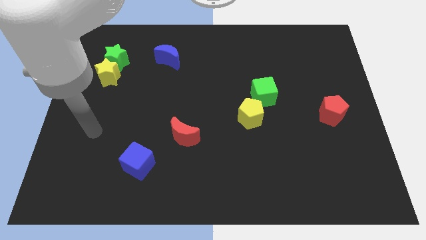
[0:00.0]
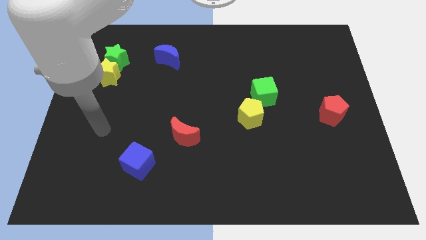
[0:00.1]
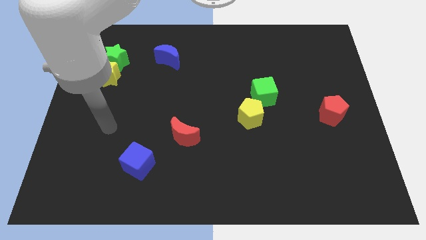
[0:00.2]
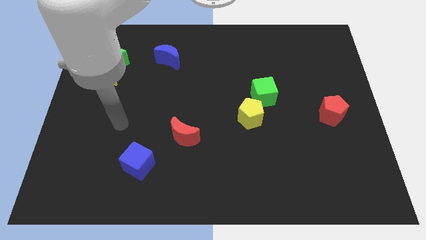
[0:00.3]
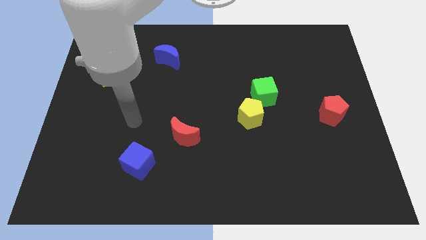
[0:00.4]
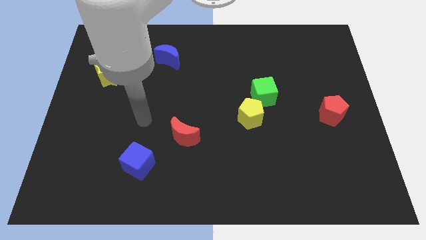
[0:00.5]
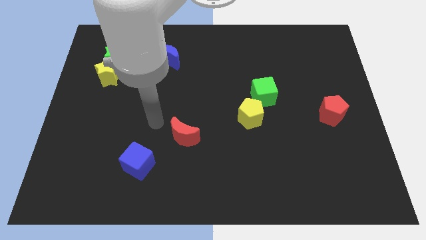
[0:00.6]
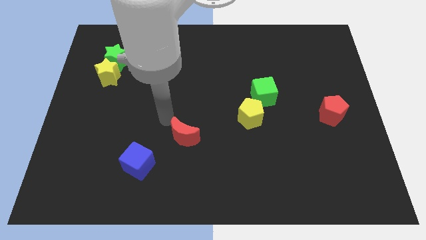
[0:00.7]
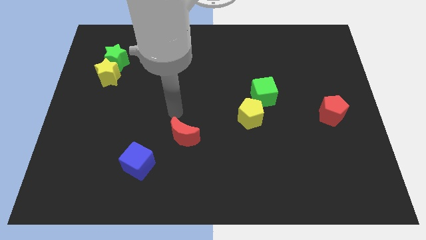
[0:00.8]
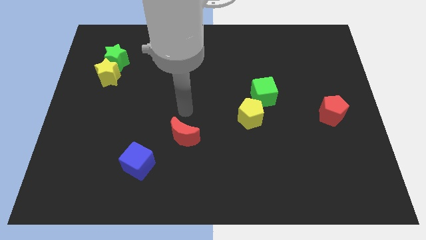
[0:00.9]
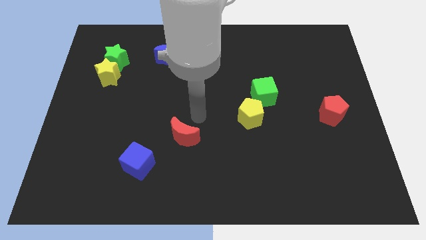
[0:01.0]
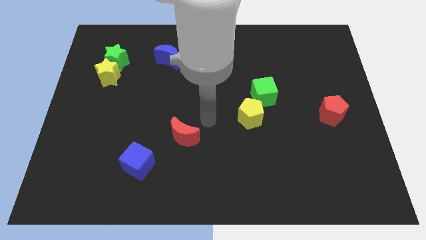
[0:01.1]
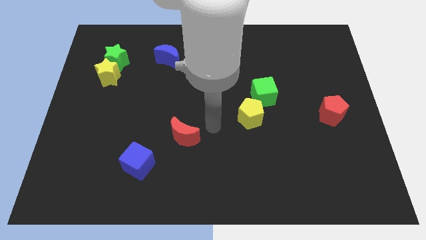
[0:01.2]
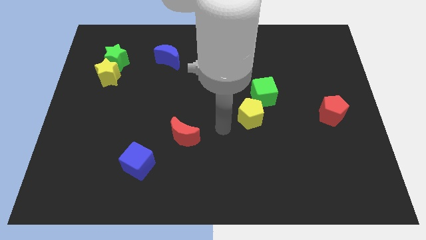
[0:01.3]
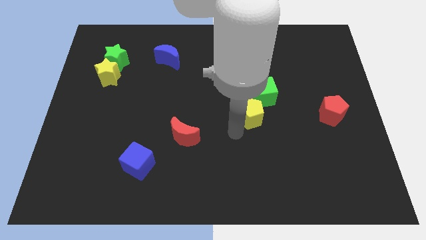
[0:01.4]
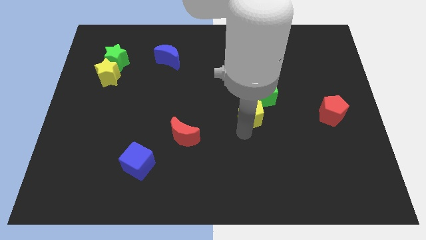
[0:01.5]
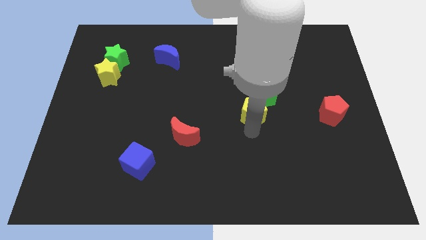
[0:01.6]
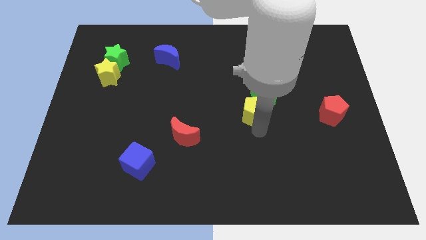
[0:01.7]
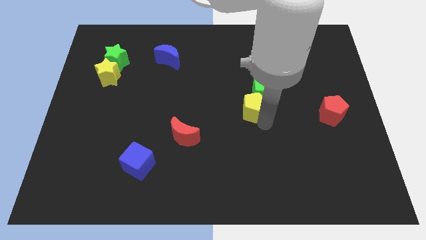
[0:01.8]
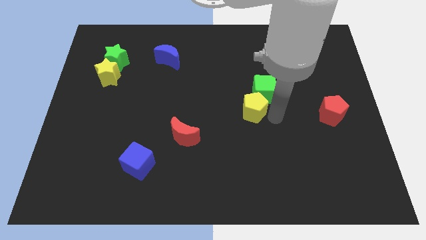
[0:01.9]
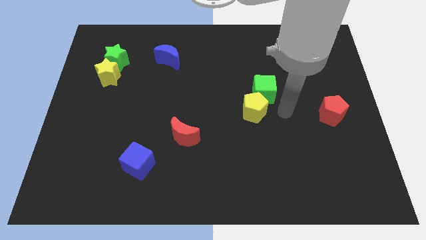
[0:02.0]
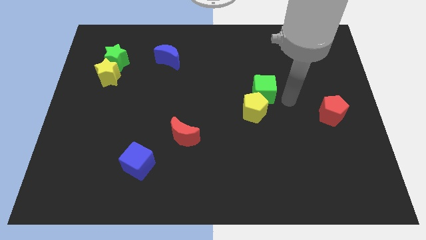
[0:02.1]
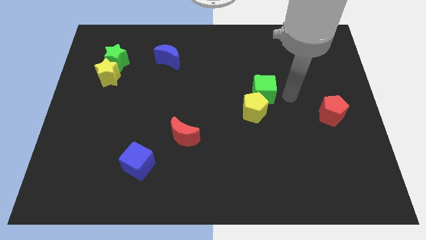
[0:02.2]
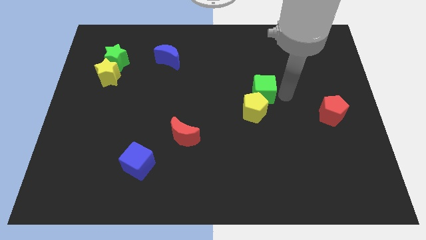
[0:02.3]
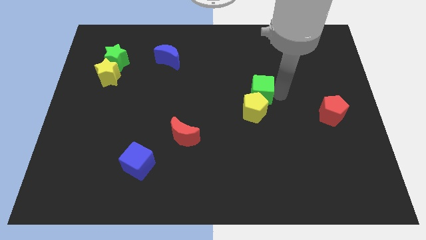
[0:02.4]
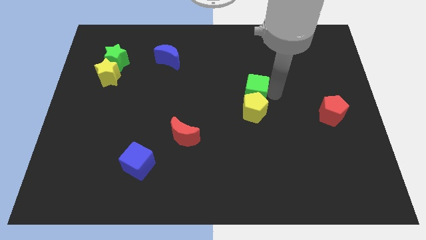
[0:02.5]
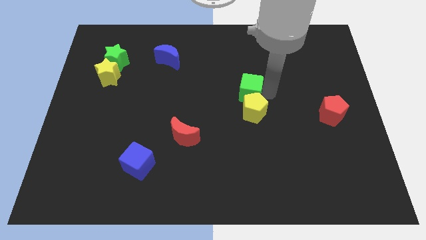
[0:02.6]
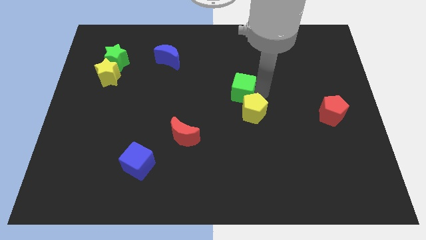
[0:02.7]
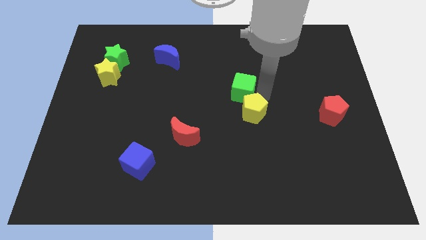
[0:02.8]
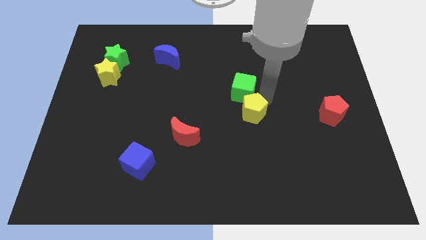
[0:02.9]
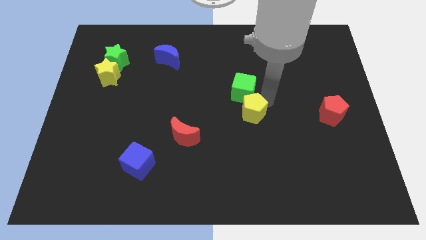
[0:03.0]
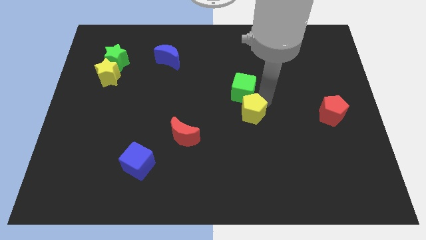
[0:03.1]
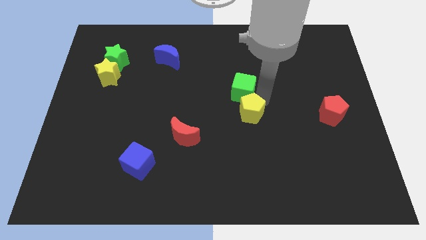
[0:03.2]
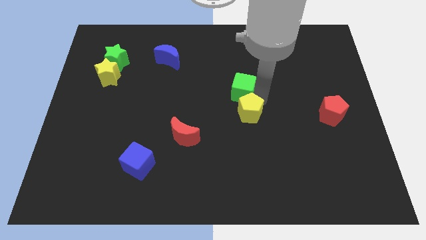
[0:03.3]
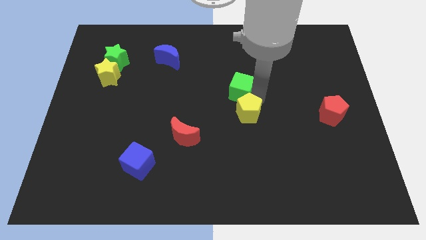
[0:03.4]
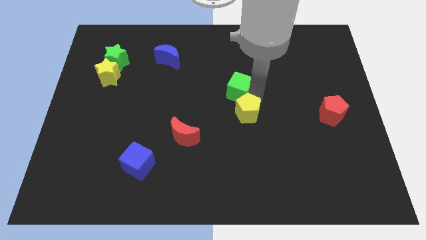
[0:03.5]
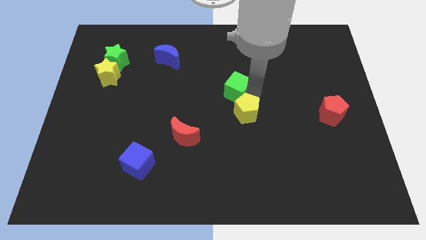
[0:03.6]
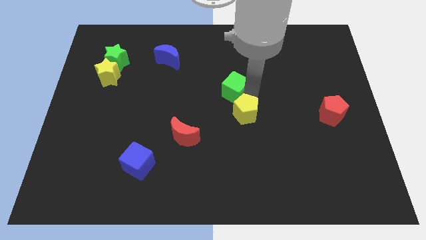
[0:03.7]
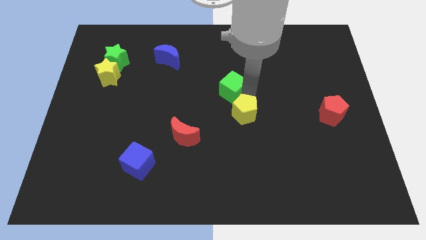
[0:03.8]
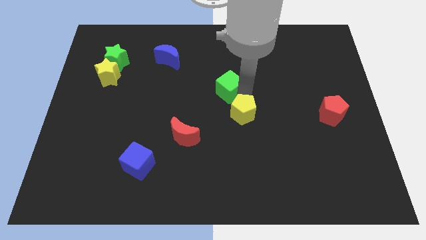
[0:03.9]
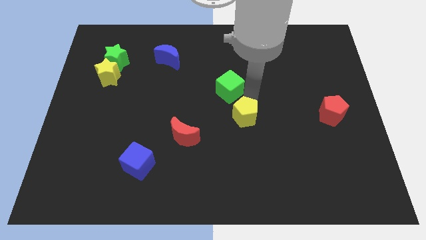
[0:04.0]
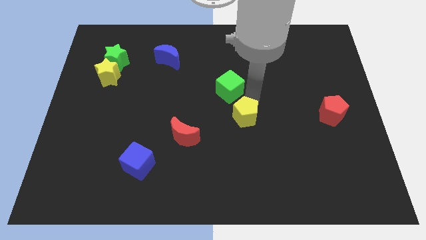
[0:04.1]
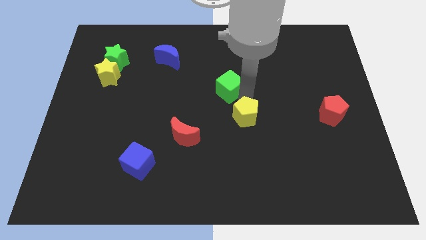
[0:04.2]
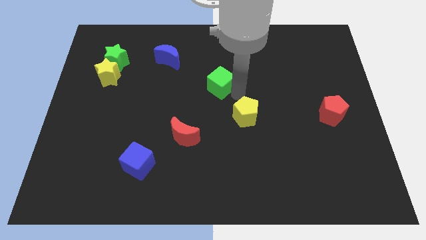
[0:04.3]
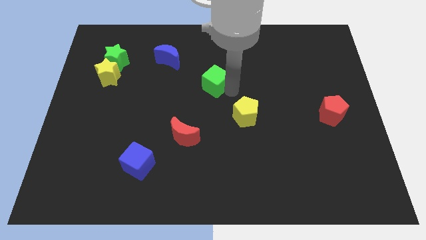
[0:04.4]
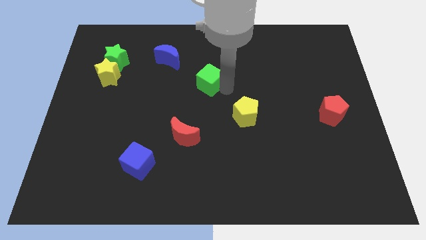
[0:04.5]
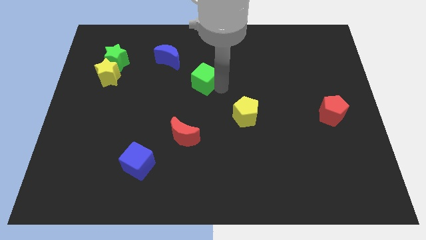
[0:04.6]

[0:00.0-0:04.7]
put the green cube to the bottom right side of the blue moon

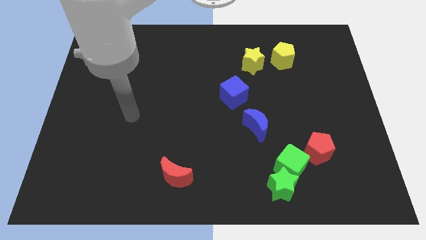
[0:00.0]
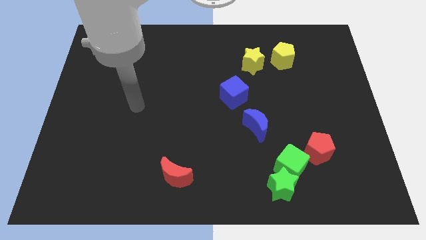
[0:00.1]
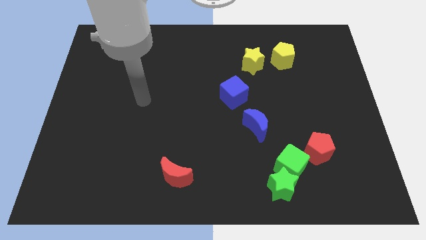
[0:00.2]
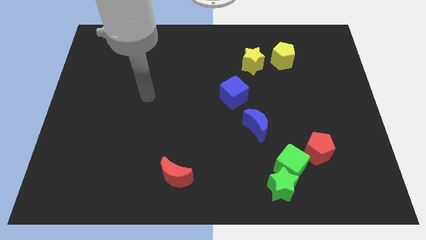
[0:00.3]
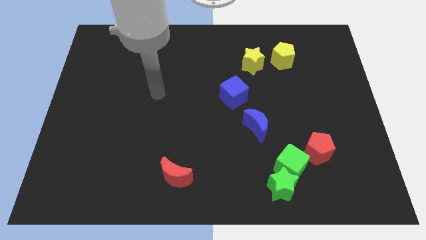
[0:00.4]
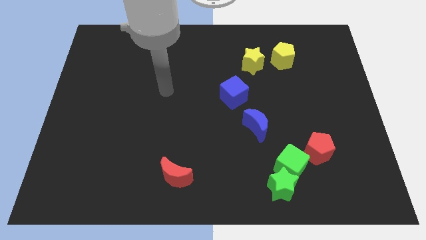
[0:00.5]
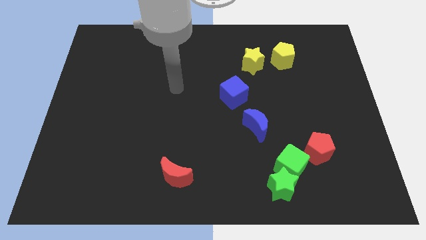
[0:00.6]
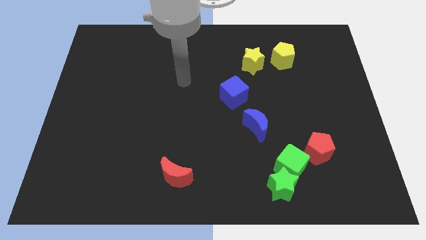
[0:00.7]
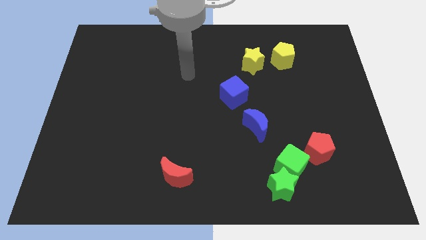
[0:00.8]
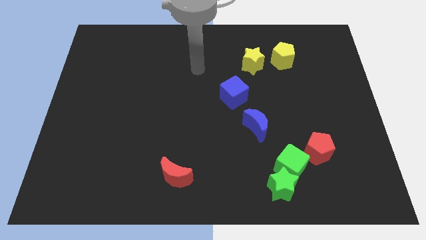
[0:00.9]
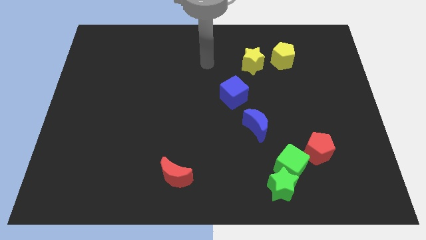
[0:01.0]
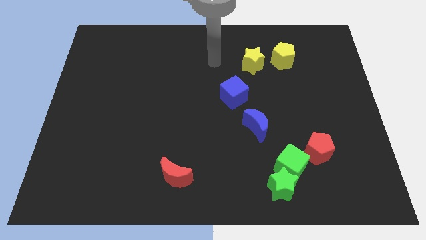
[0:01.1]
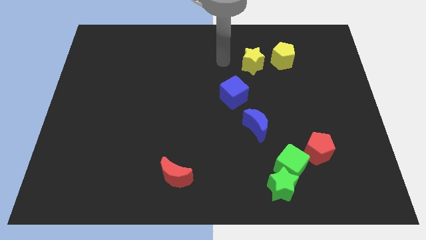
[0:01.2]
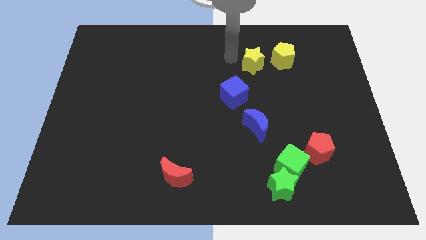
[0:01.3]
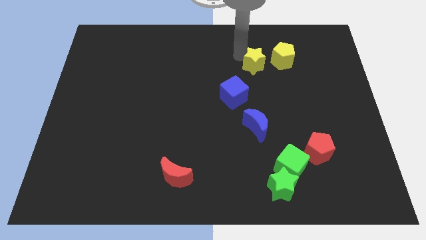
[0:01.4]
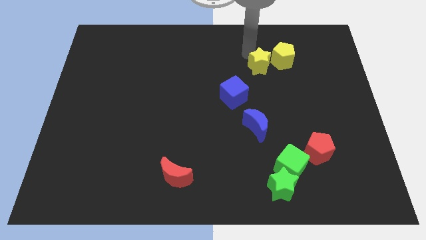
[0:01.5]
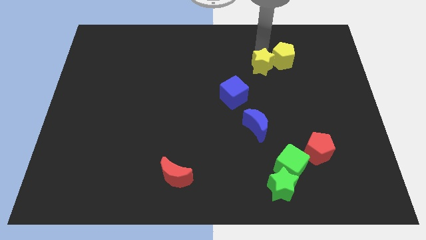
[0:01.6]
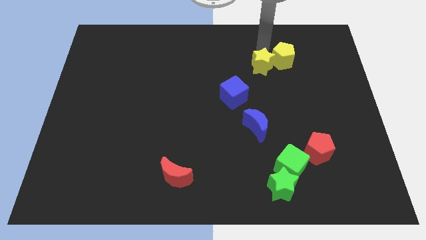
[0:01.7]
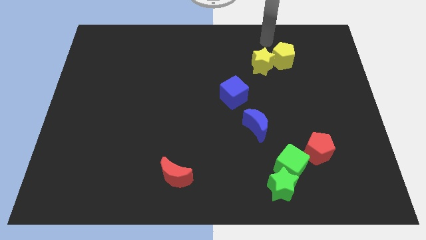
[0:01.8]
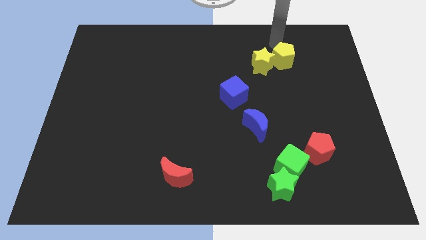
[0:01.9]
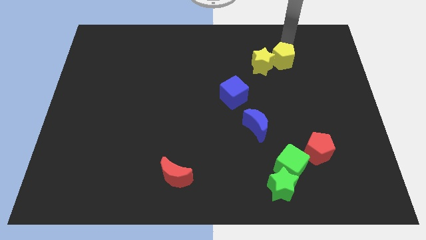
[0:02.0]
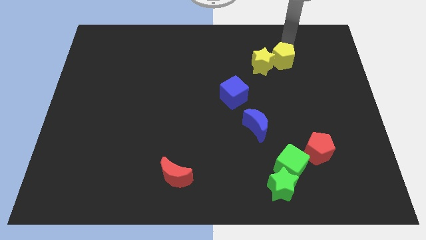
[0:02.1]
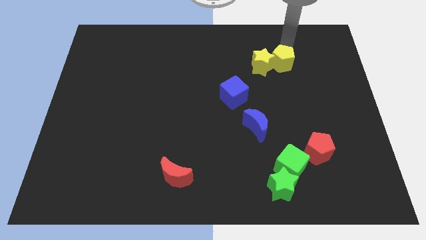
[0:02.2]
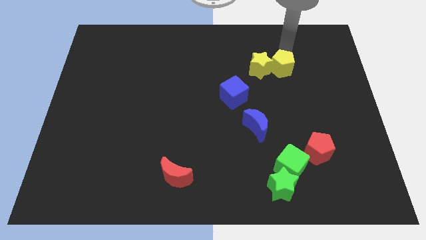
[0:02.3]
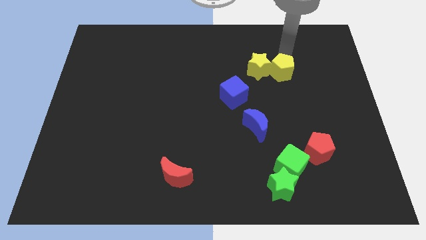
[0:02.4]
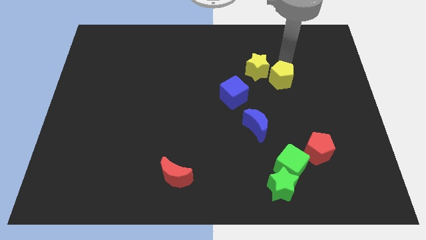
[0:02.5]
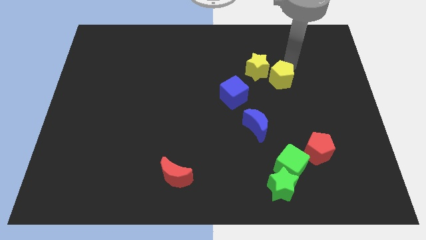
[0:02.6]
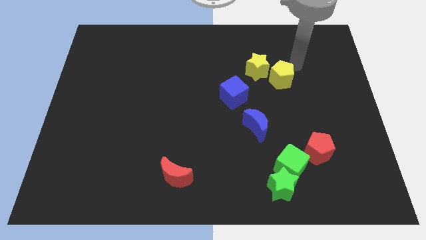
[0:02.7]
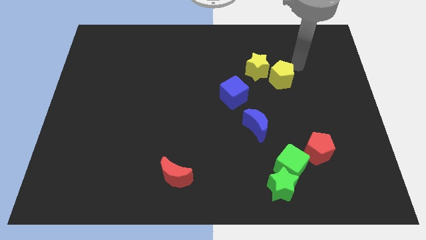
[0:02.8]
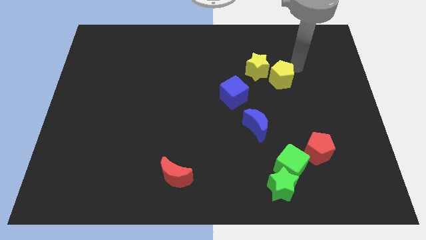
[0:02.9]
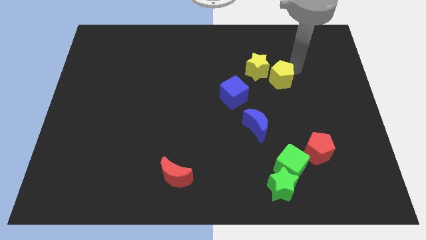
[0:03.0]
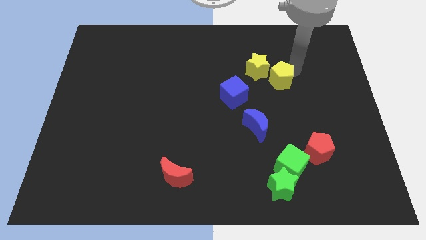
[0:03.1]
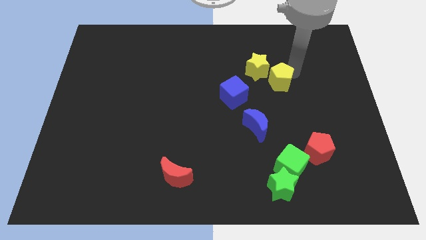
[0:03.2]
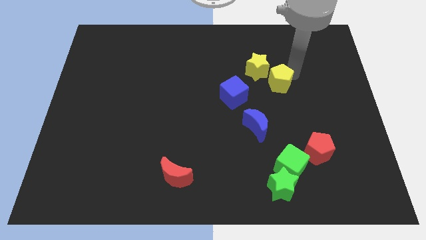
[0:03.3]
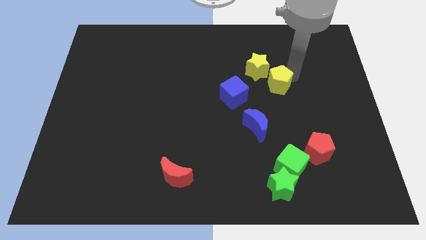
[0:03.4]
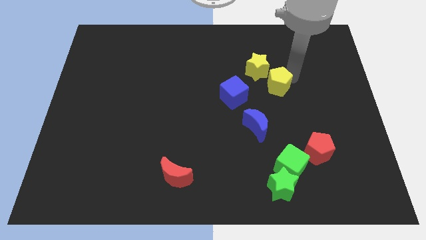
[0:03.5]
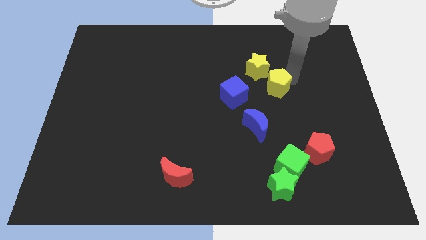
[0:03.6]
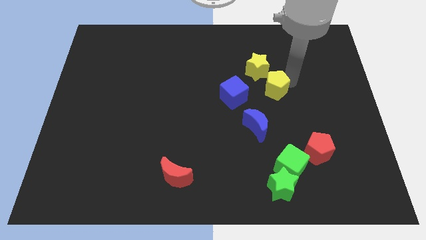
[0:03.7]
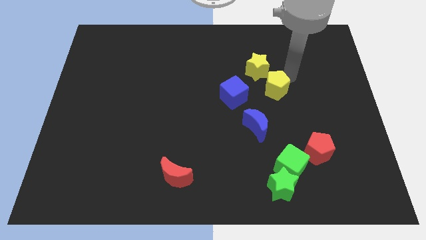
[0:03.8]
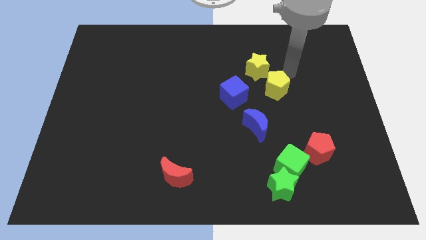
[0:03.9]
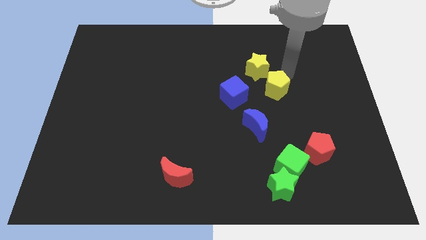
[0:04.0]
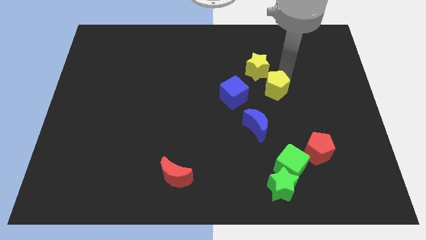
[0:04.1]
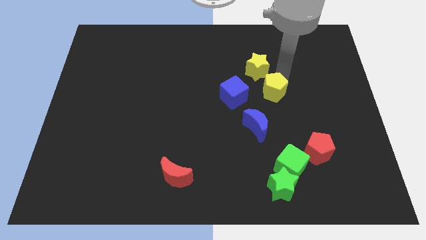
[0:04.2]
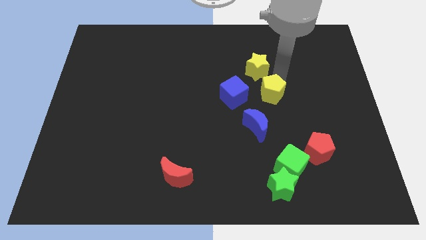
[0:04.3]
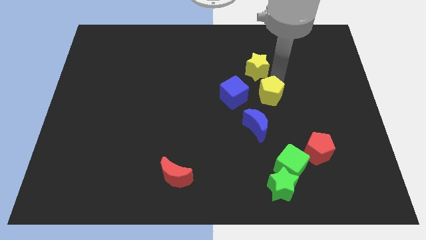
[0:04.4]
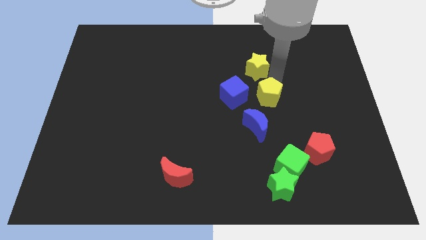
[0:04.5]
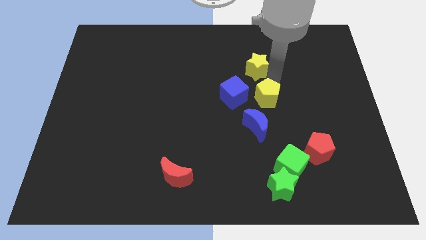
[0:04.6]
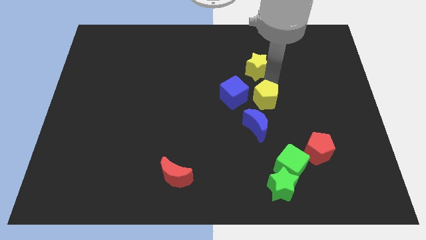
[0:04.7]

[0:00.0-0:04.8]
push the yellow pentagon diagonally down and to the right of the blue cube
